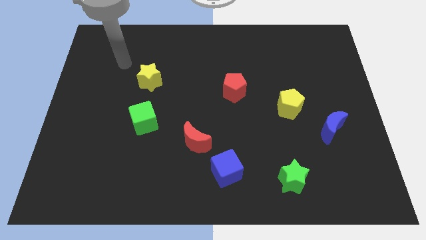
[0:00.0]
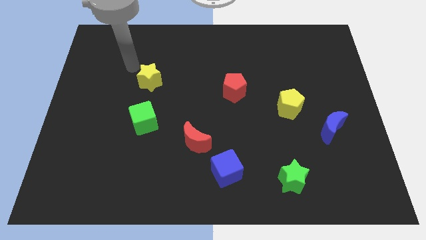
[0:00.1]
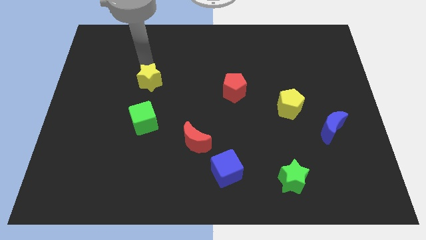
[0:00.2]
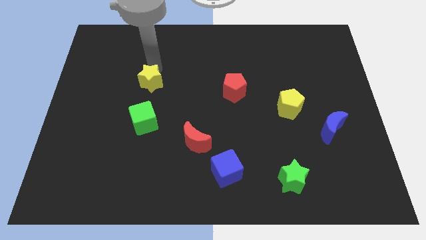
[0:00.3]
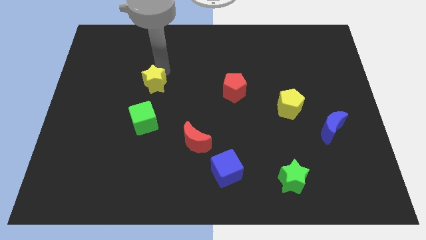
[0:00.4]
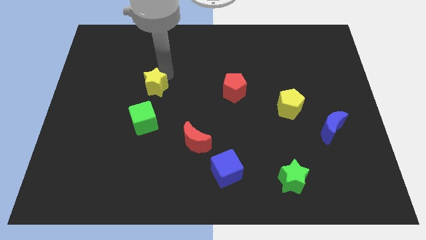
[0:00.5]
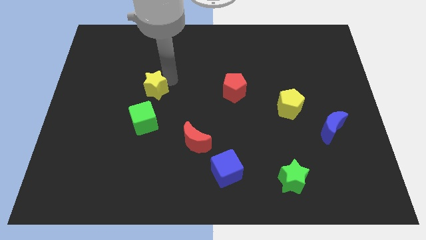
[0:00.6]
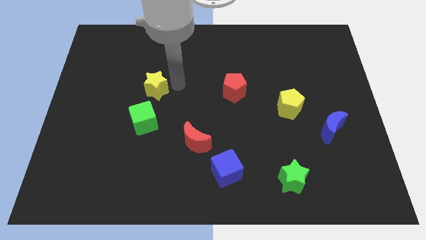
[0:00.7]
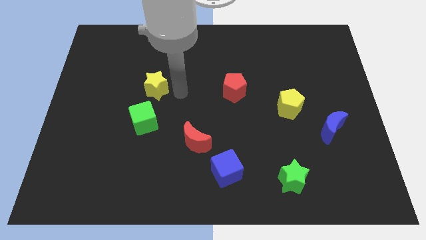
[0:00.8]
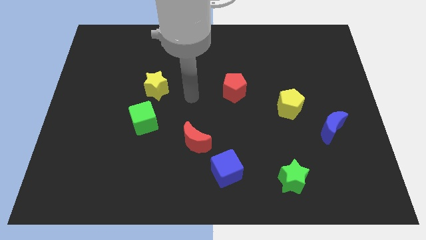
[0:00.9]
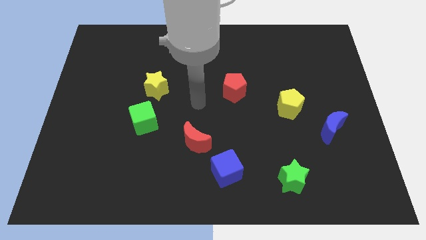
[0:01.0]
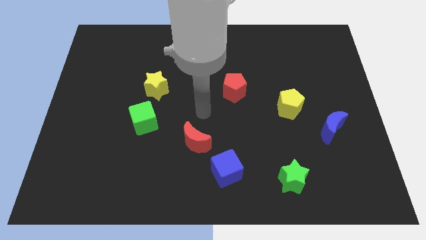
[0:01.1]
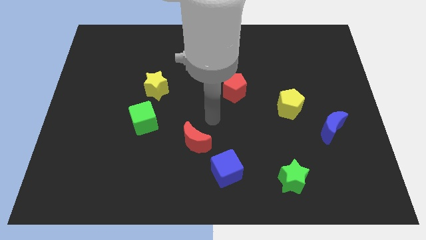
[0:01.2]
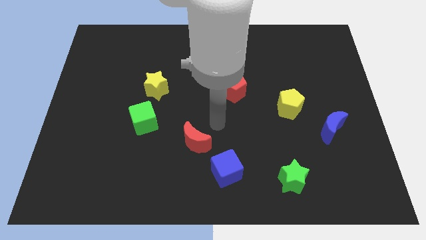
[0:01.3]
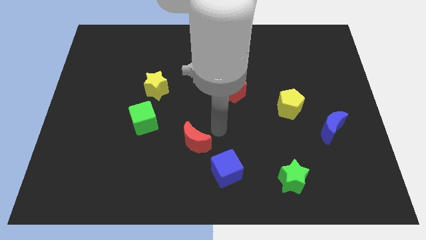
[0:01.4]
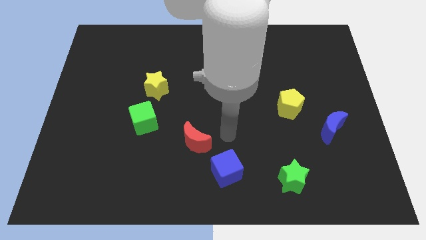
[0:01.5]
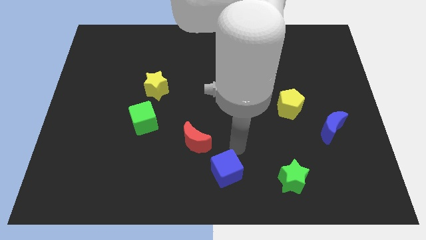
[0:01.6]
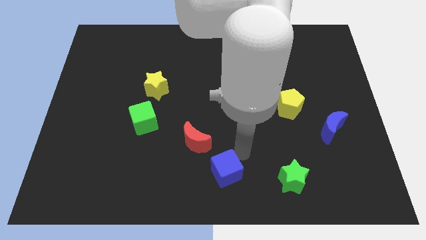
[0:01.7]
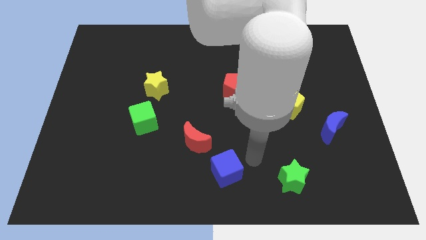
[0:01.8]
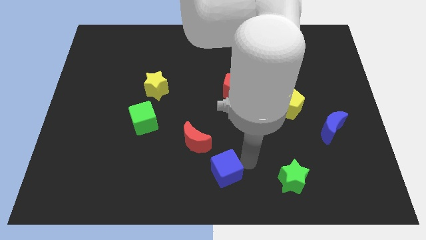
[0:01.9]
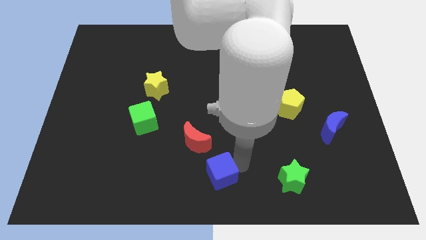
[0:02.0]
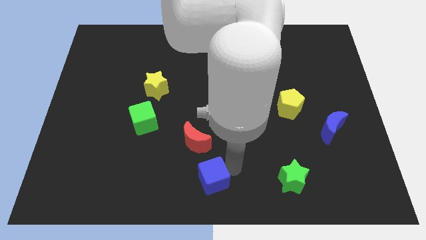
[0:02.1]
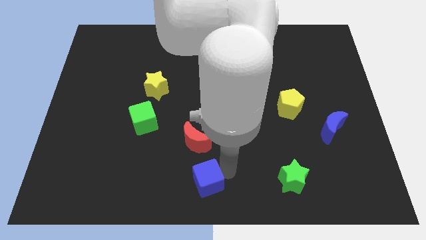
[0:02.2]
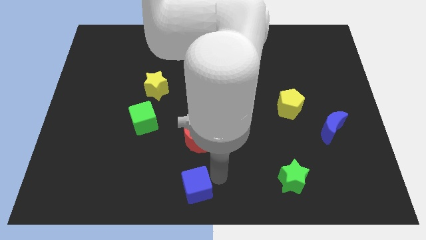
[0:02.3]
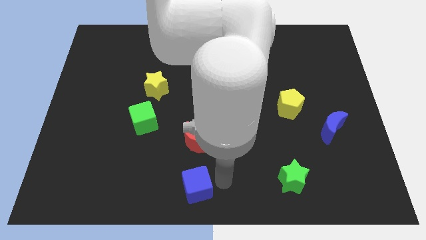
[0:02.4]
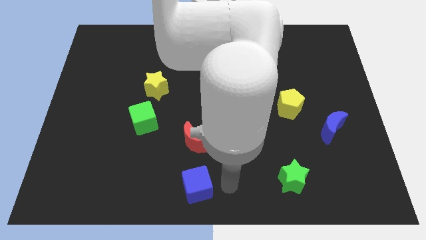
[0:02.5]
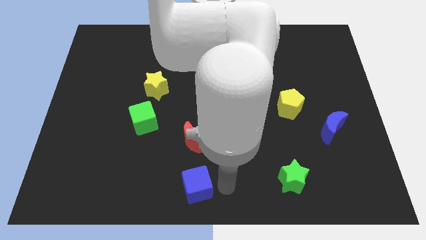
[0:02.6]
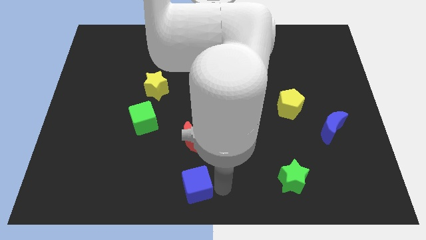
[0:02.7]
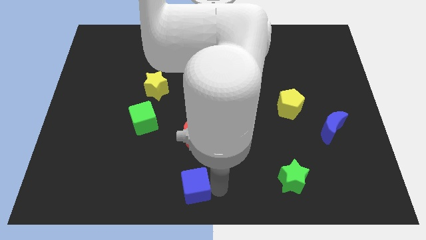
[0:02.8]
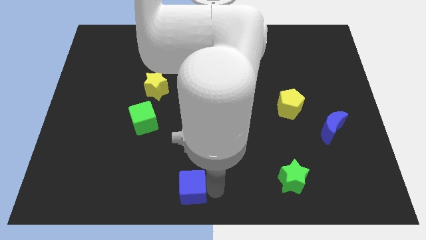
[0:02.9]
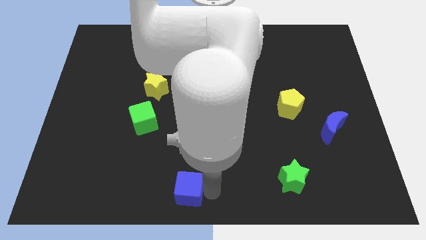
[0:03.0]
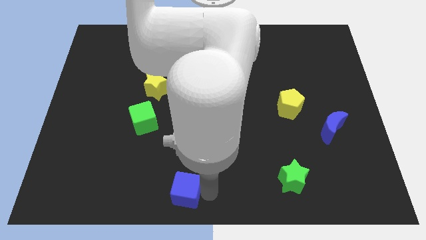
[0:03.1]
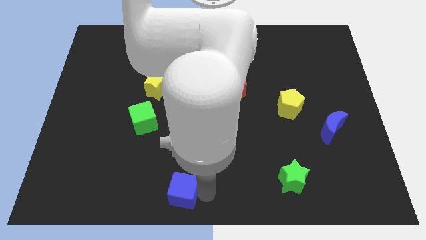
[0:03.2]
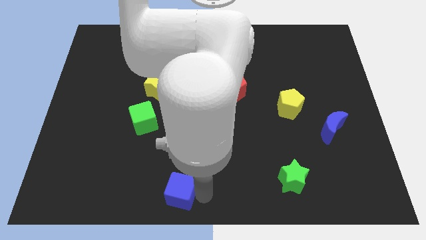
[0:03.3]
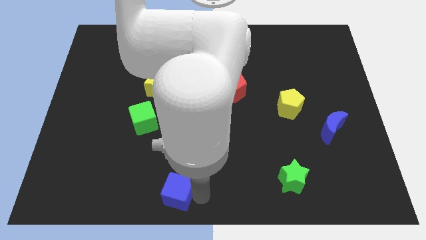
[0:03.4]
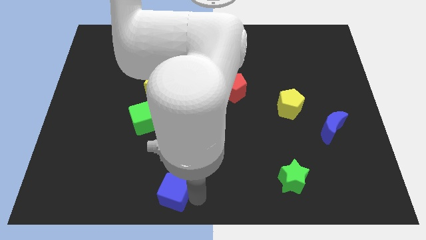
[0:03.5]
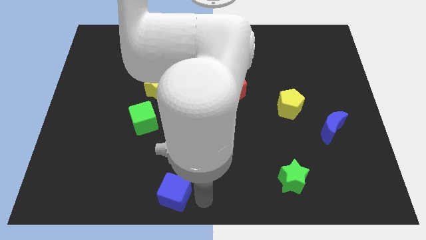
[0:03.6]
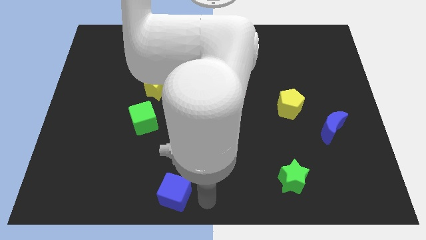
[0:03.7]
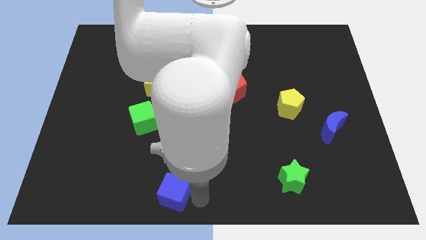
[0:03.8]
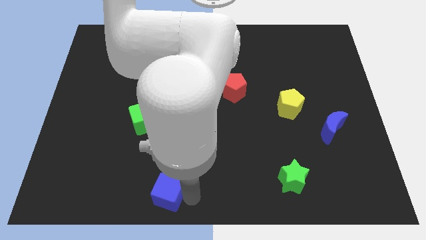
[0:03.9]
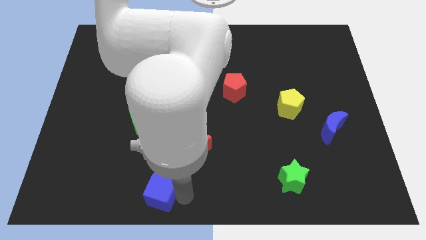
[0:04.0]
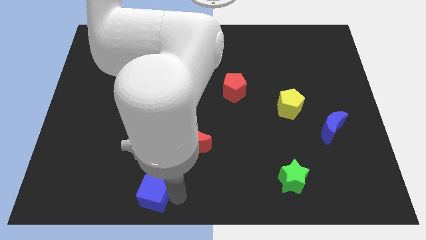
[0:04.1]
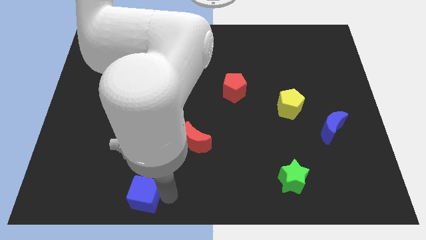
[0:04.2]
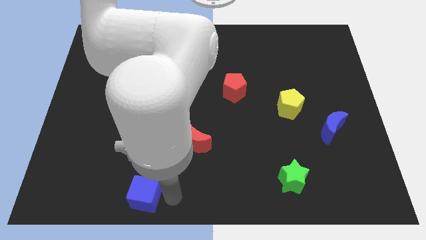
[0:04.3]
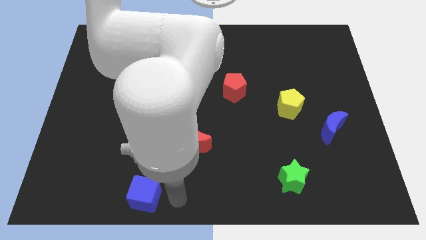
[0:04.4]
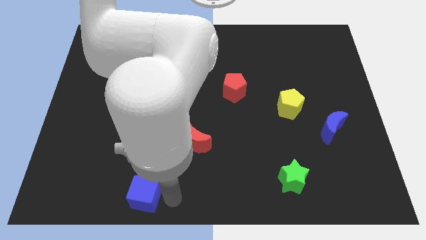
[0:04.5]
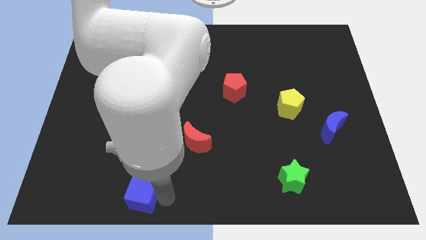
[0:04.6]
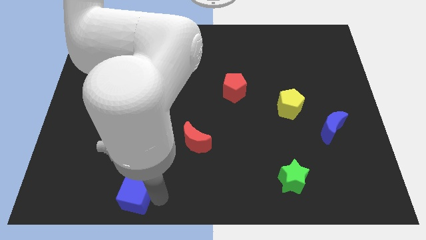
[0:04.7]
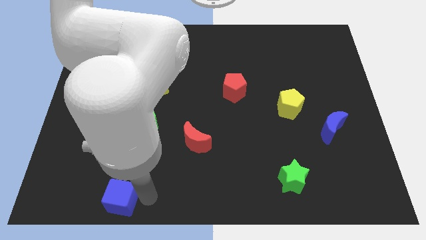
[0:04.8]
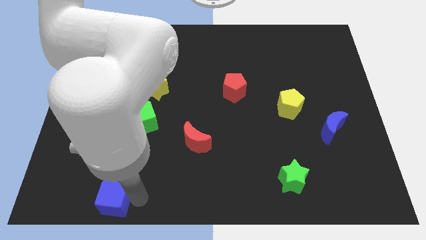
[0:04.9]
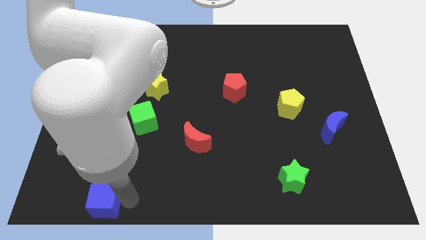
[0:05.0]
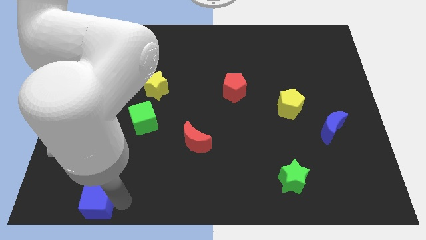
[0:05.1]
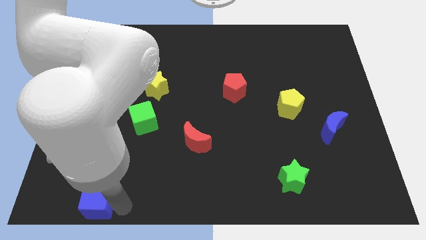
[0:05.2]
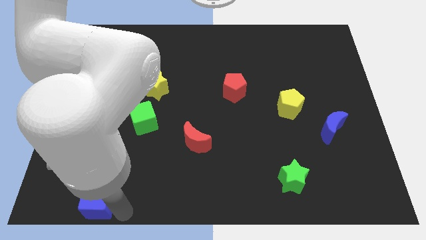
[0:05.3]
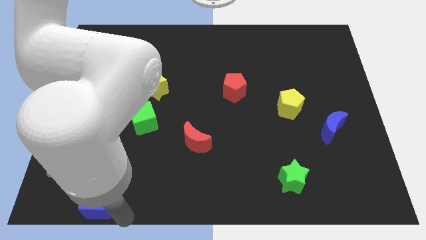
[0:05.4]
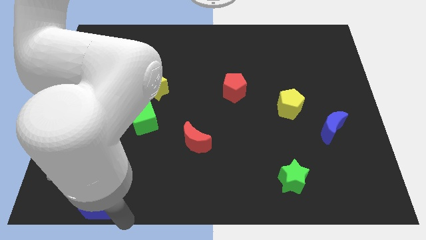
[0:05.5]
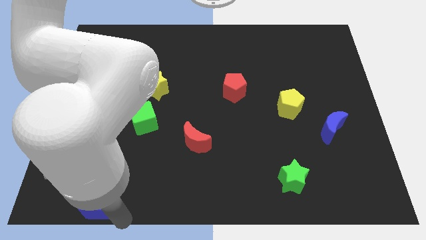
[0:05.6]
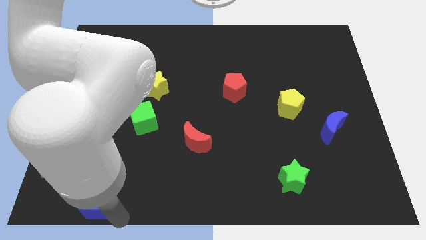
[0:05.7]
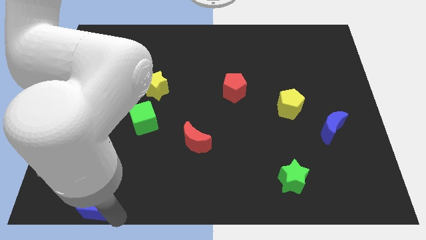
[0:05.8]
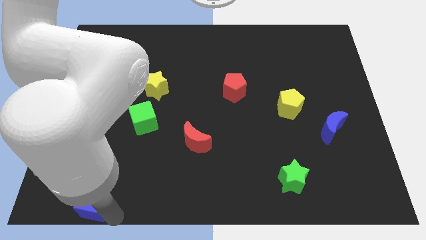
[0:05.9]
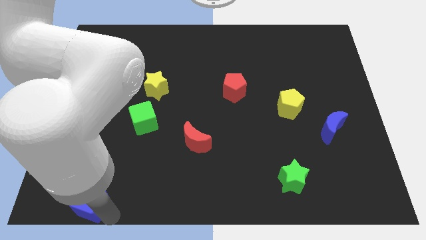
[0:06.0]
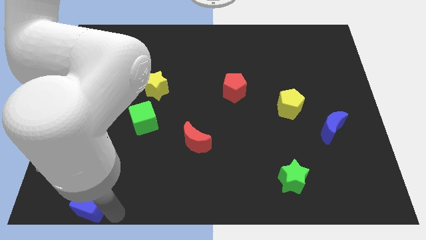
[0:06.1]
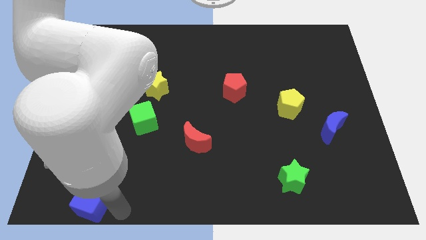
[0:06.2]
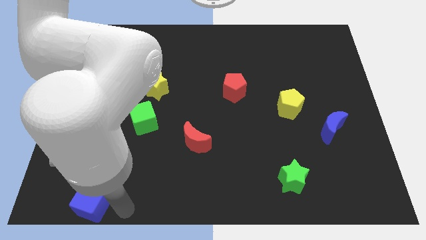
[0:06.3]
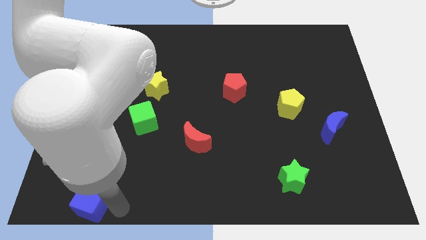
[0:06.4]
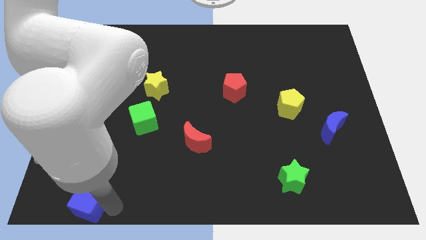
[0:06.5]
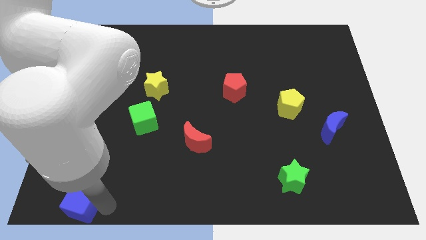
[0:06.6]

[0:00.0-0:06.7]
put the blue cube to the bottom left
